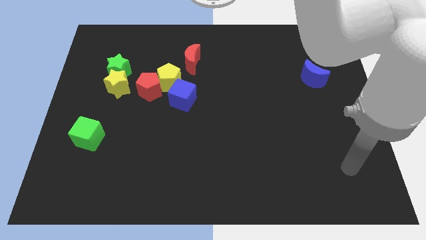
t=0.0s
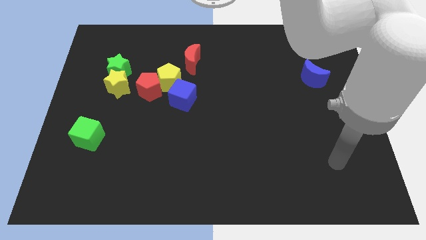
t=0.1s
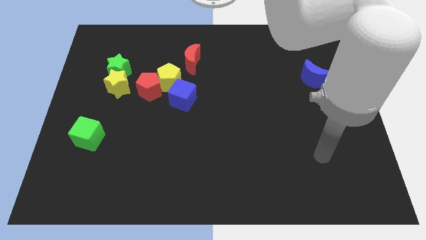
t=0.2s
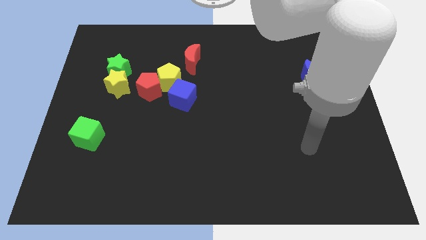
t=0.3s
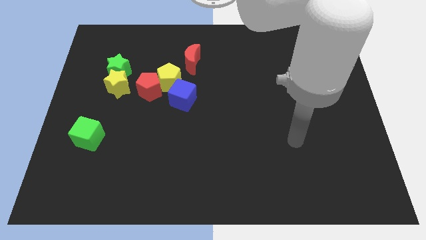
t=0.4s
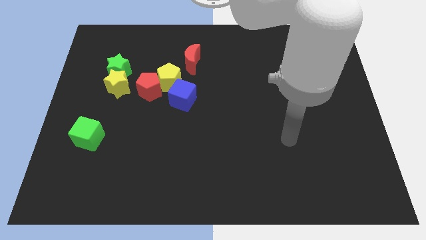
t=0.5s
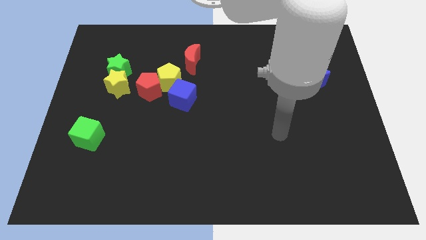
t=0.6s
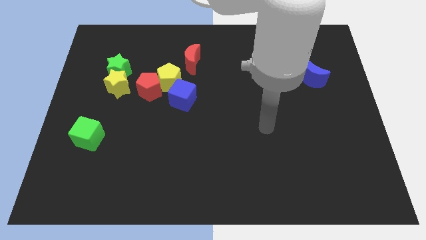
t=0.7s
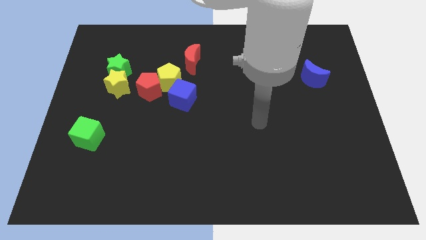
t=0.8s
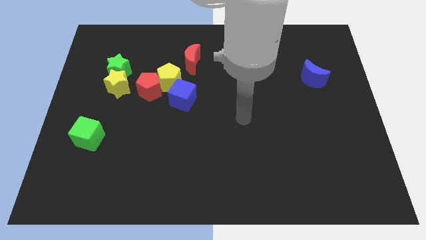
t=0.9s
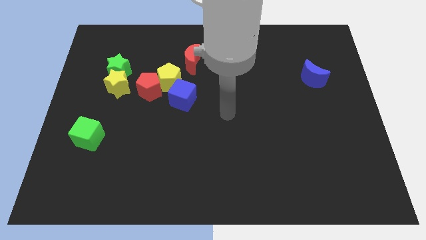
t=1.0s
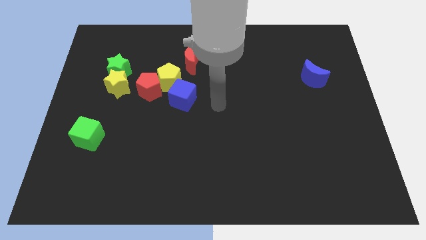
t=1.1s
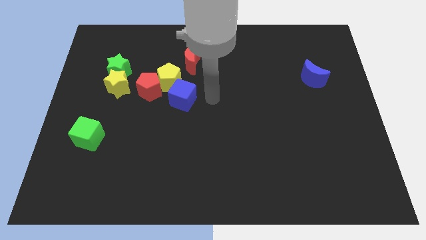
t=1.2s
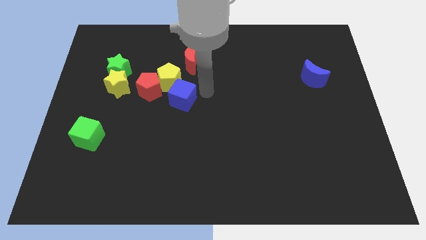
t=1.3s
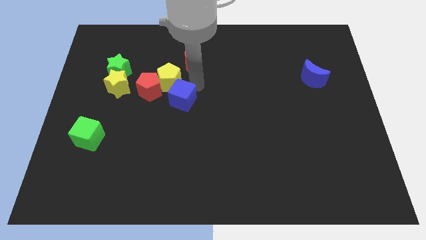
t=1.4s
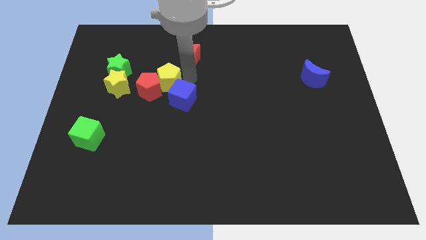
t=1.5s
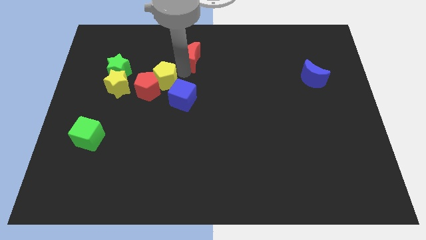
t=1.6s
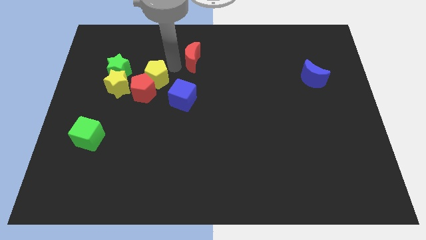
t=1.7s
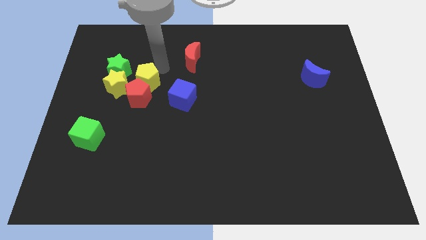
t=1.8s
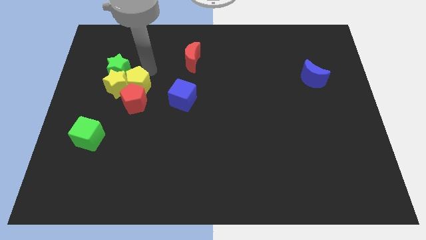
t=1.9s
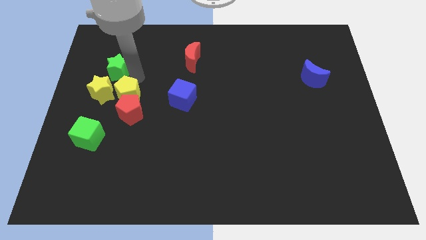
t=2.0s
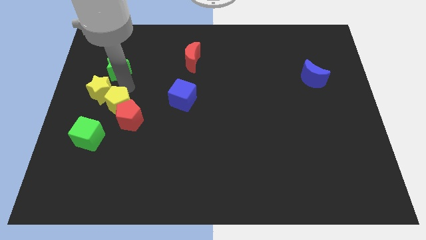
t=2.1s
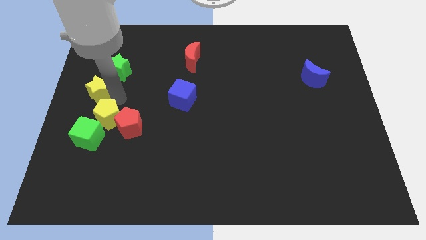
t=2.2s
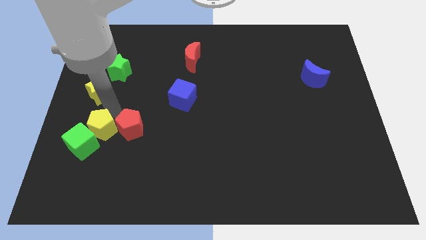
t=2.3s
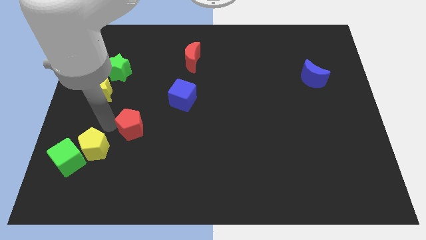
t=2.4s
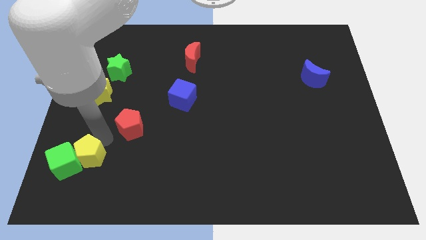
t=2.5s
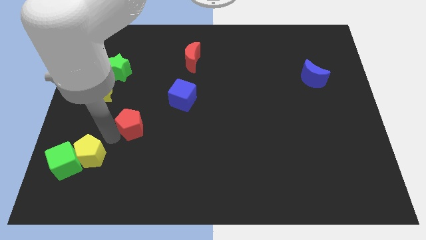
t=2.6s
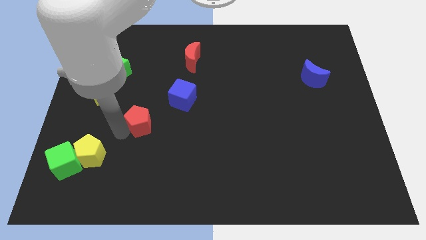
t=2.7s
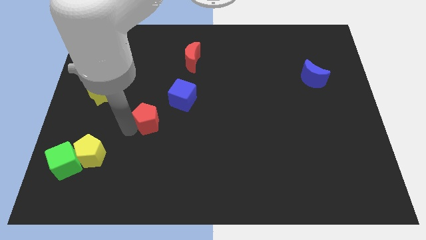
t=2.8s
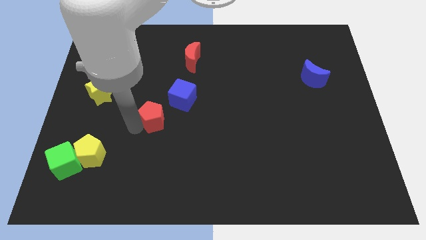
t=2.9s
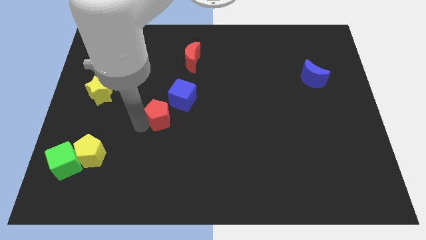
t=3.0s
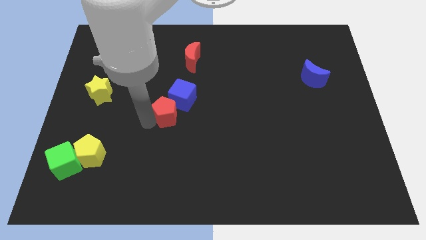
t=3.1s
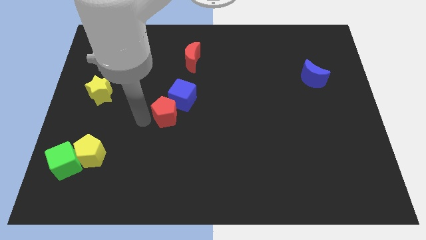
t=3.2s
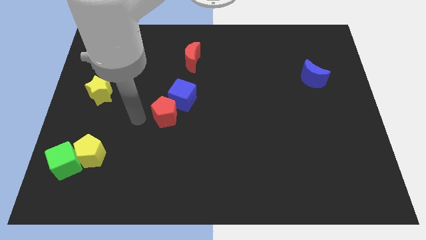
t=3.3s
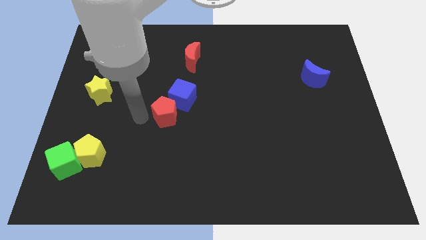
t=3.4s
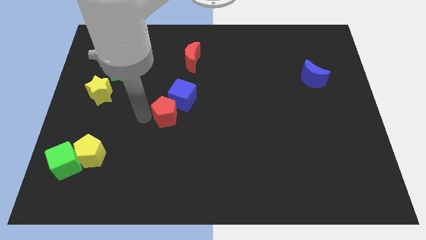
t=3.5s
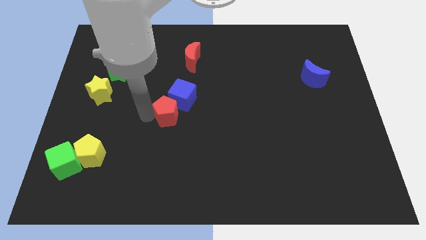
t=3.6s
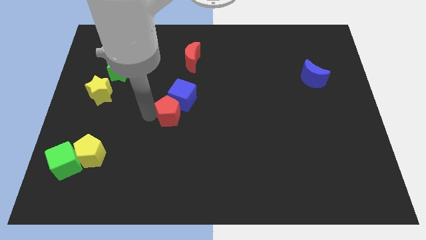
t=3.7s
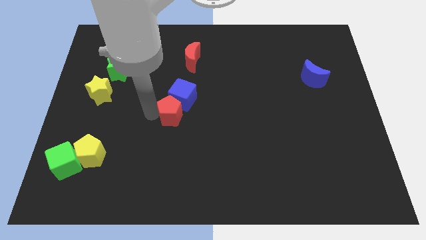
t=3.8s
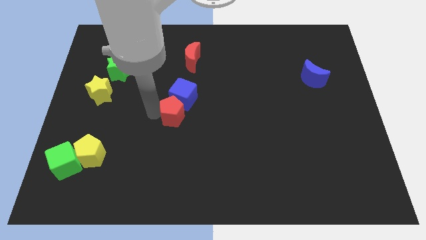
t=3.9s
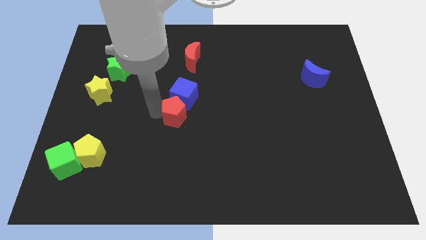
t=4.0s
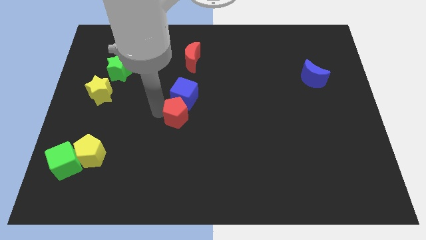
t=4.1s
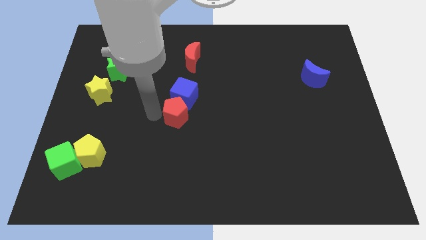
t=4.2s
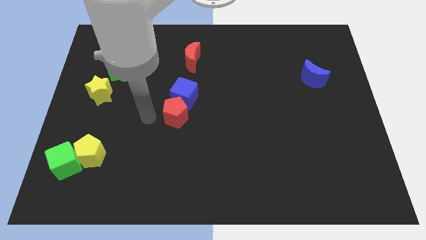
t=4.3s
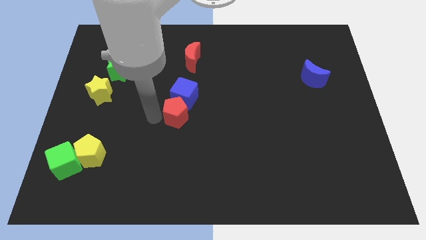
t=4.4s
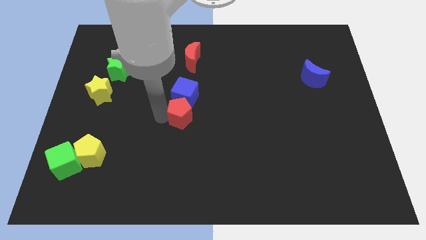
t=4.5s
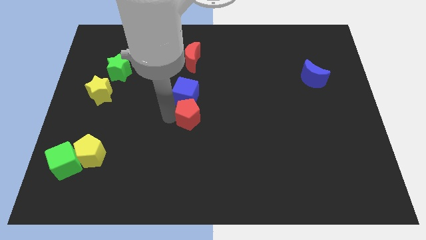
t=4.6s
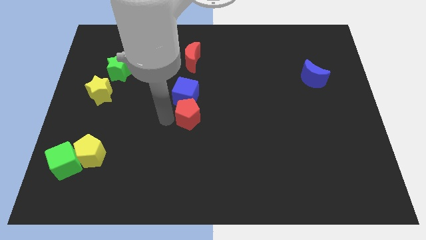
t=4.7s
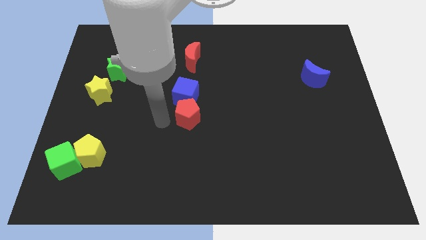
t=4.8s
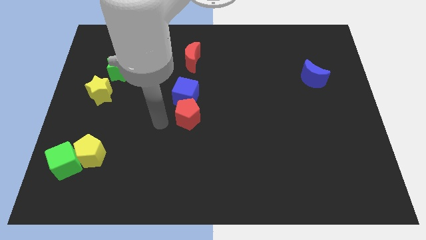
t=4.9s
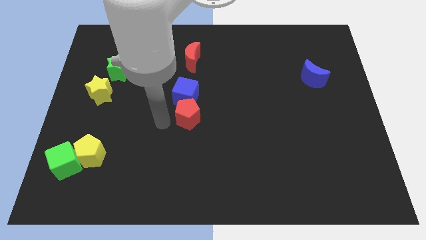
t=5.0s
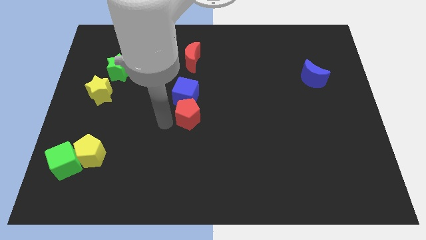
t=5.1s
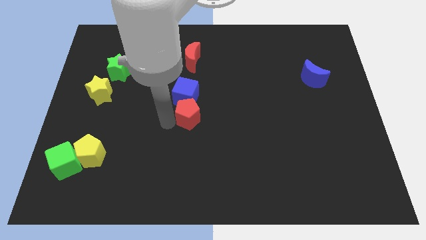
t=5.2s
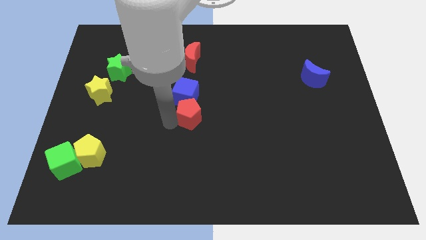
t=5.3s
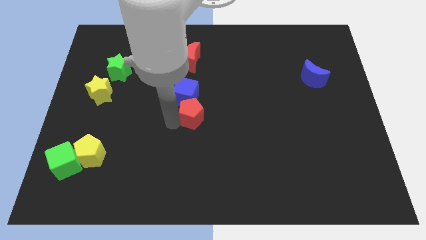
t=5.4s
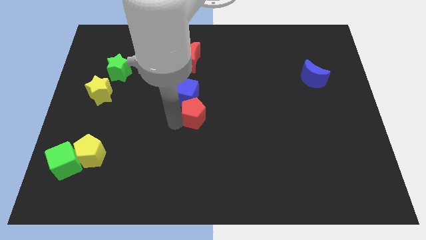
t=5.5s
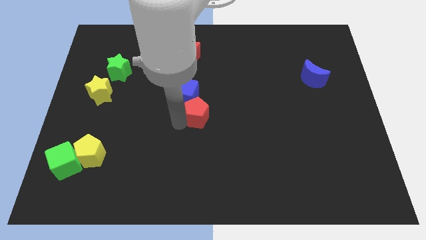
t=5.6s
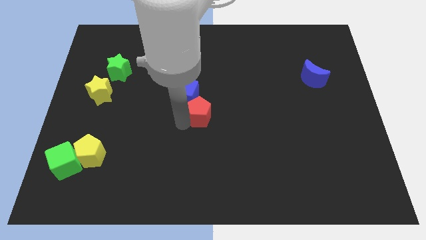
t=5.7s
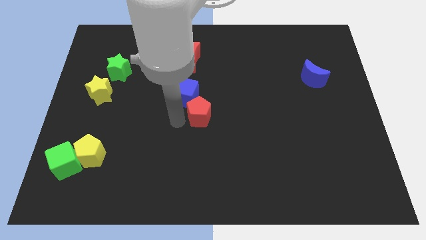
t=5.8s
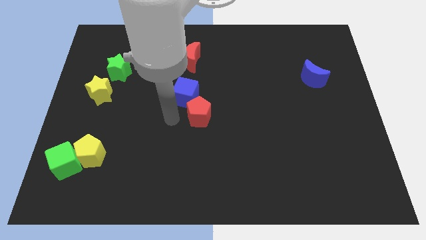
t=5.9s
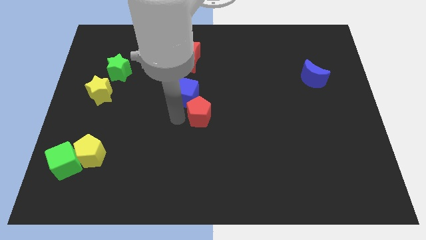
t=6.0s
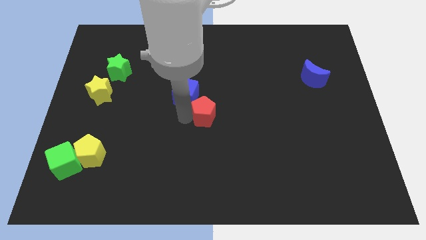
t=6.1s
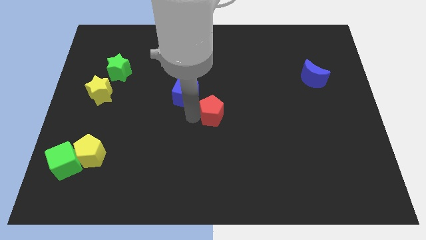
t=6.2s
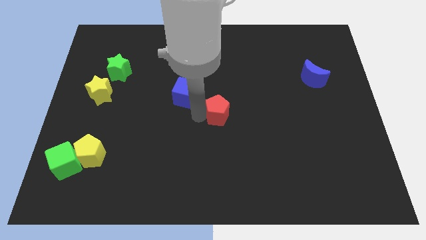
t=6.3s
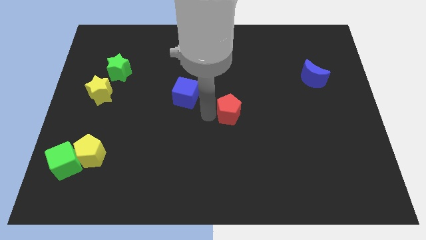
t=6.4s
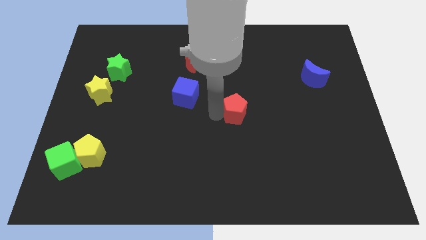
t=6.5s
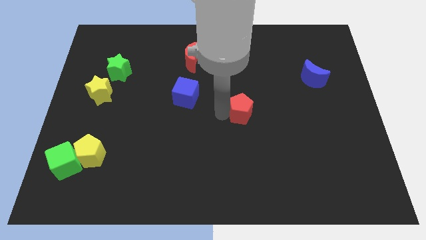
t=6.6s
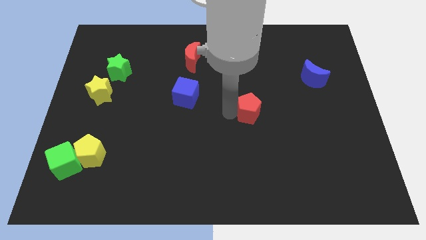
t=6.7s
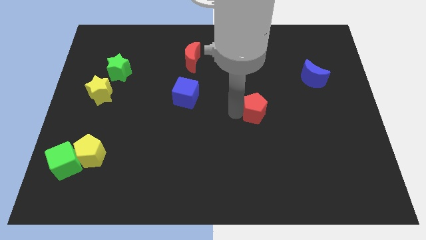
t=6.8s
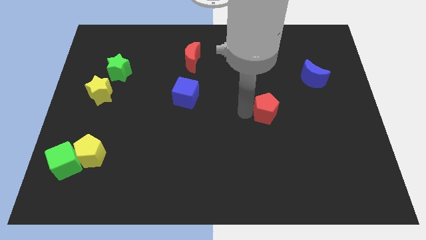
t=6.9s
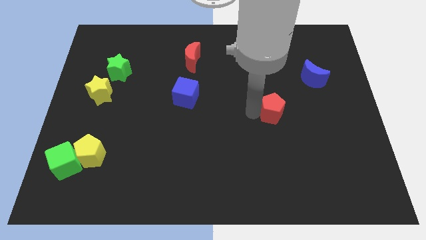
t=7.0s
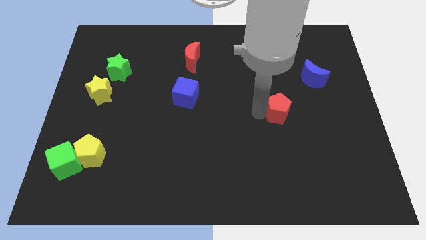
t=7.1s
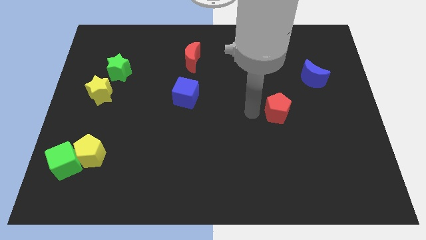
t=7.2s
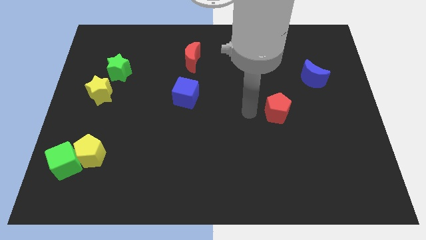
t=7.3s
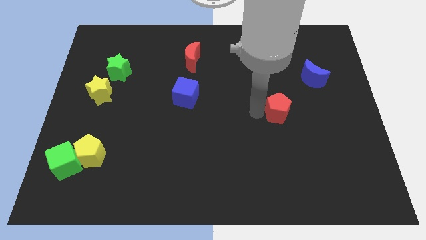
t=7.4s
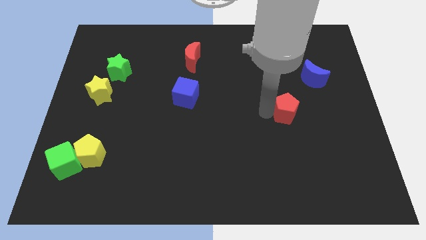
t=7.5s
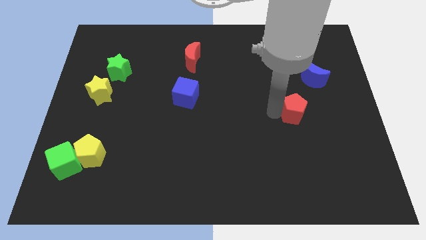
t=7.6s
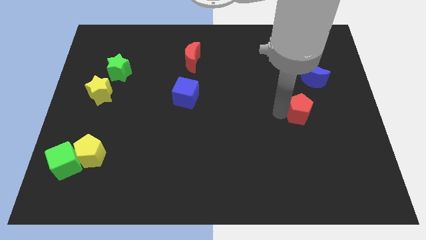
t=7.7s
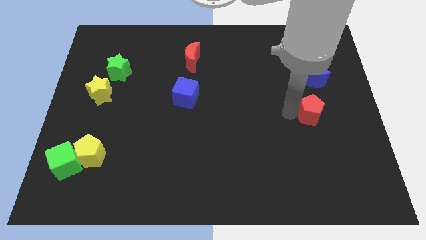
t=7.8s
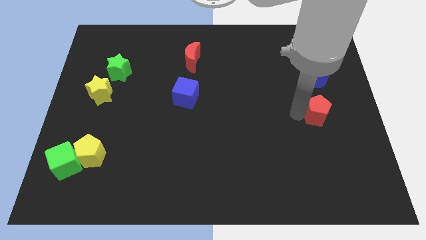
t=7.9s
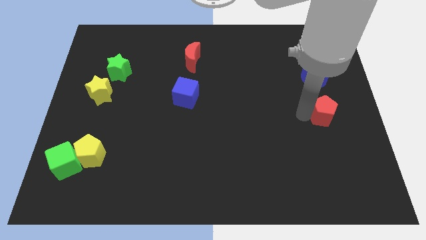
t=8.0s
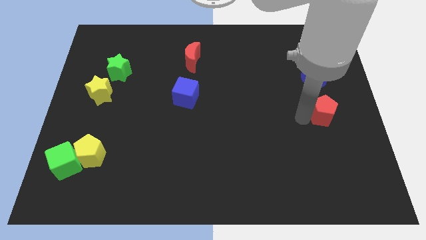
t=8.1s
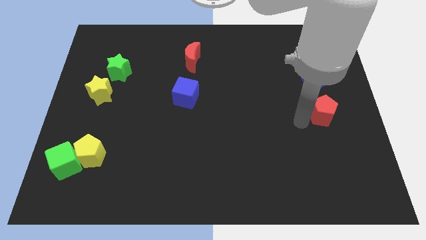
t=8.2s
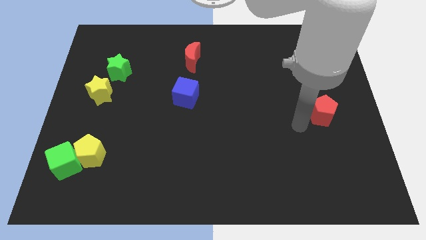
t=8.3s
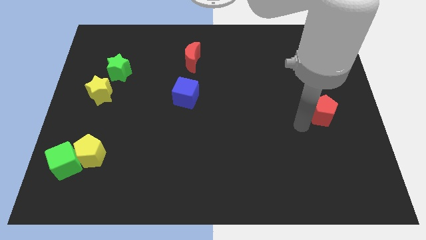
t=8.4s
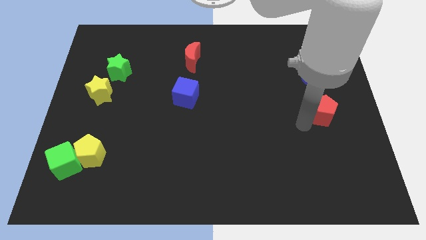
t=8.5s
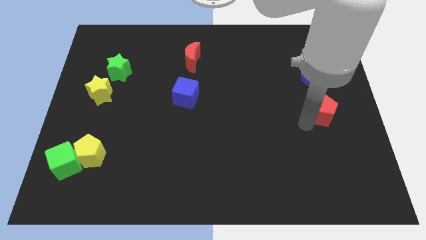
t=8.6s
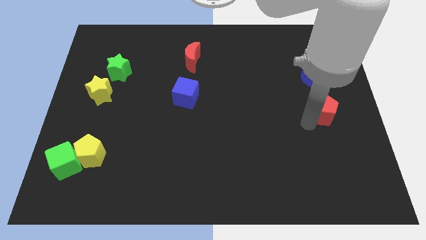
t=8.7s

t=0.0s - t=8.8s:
move the red pentagon to the right side
